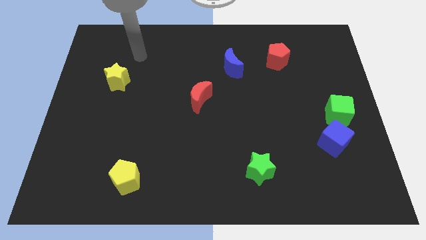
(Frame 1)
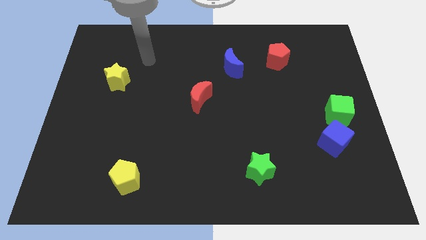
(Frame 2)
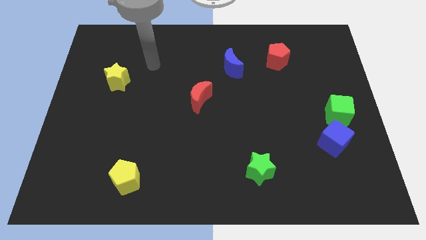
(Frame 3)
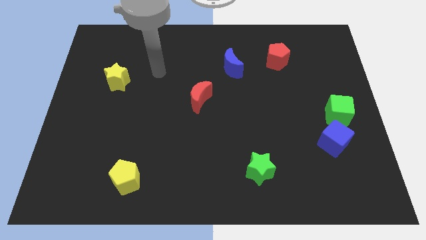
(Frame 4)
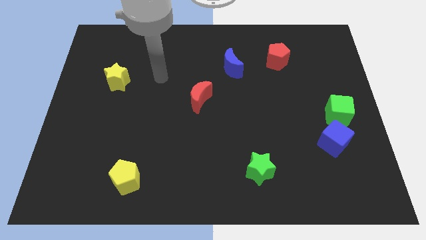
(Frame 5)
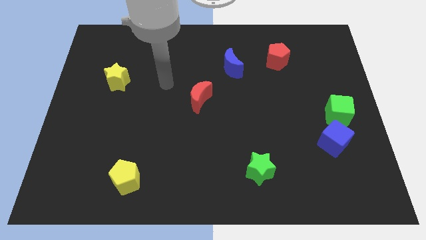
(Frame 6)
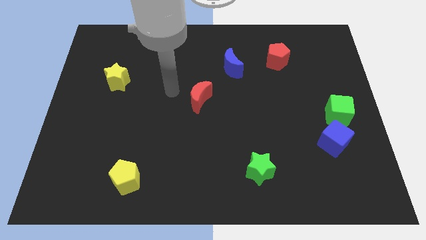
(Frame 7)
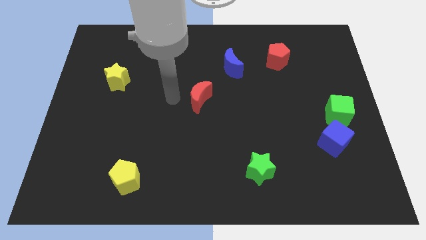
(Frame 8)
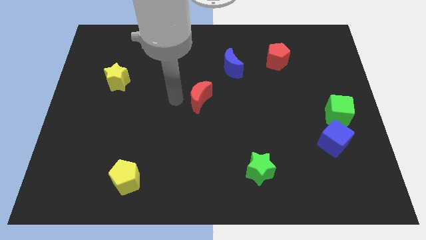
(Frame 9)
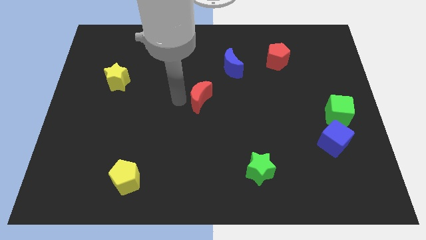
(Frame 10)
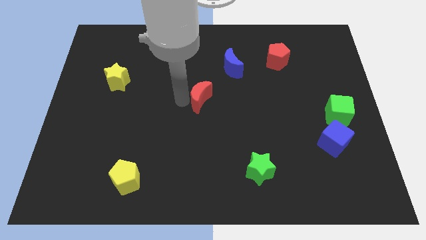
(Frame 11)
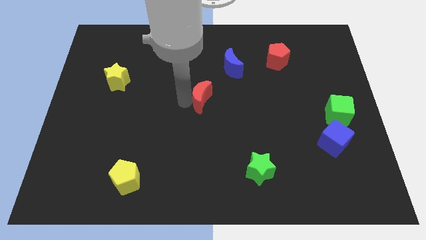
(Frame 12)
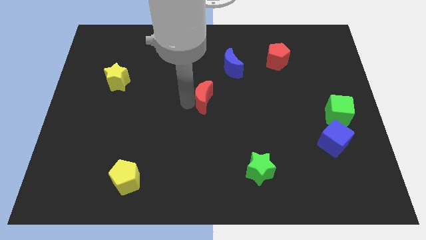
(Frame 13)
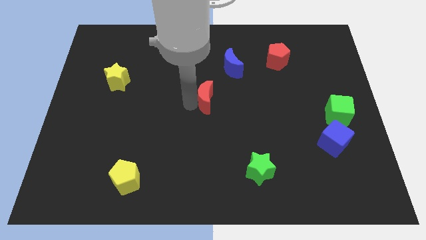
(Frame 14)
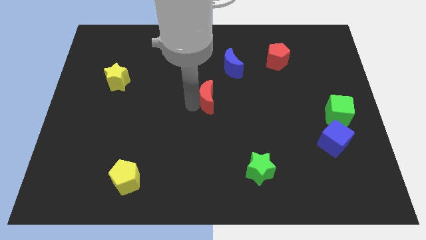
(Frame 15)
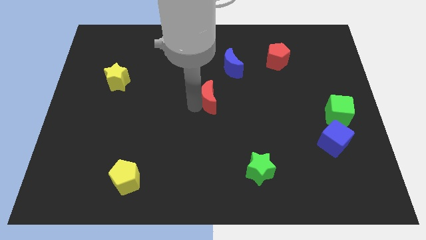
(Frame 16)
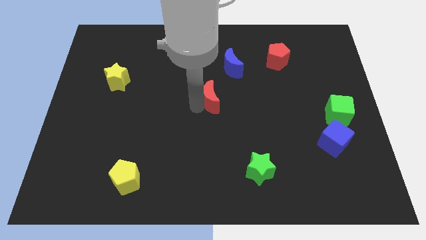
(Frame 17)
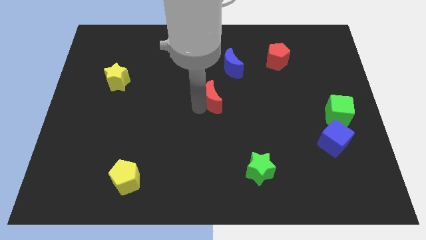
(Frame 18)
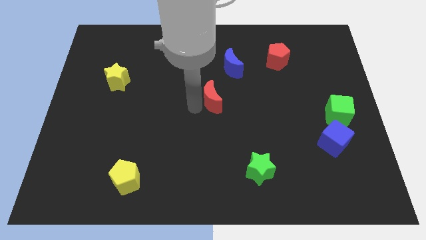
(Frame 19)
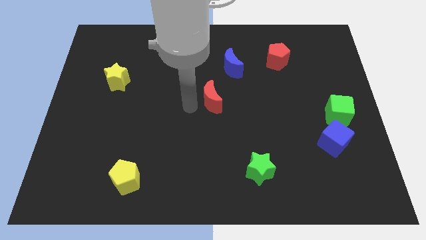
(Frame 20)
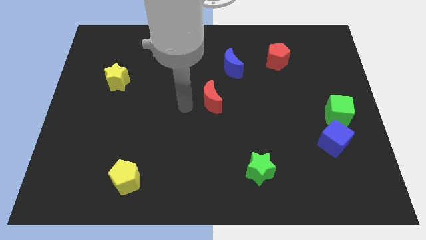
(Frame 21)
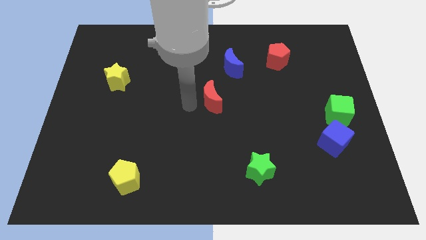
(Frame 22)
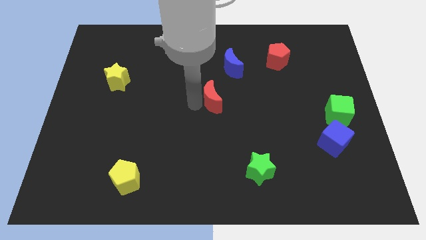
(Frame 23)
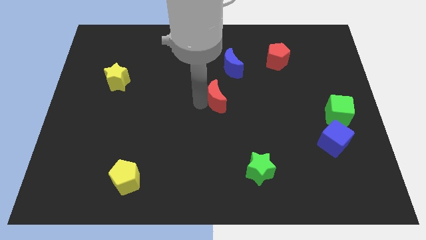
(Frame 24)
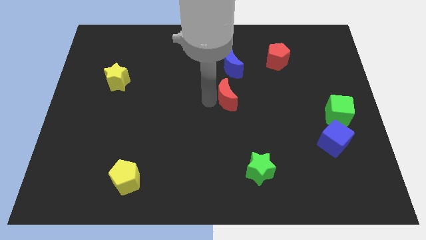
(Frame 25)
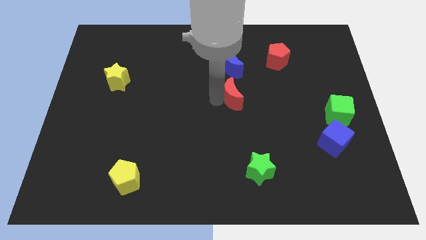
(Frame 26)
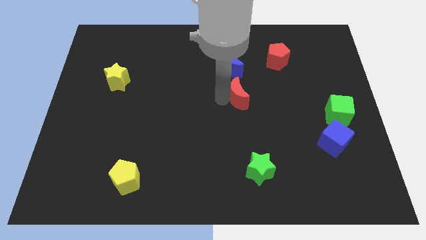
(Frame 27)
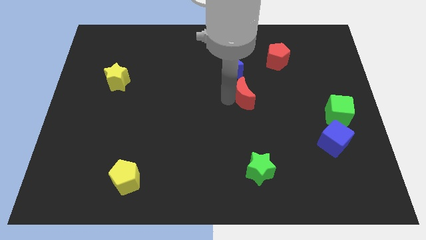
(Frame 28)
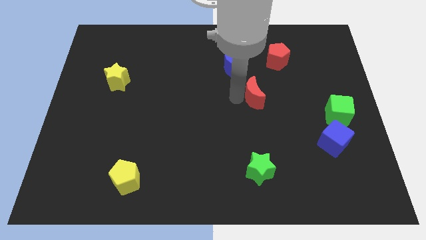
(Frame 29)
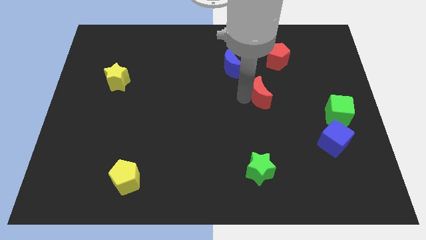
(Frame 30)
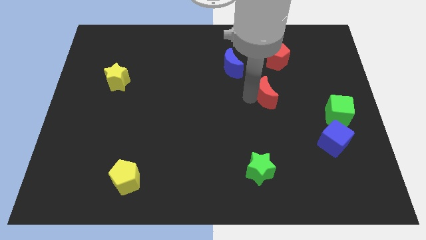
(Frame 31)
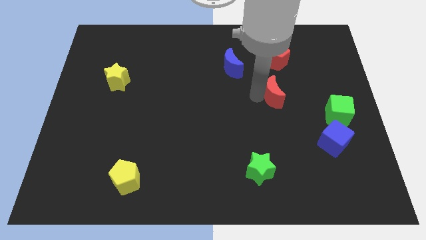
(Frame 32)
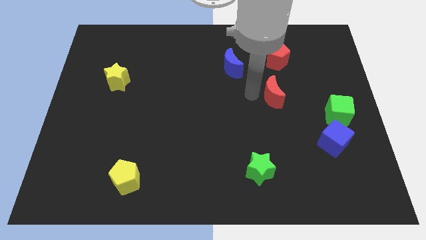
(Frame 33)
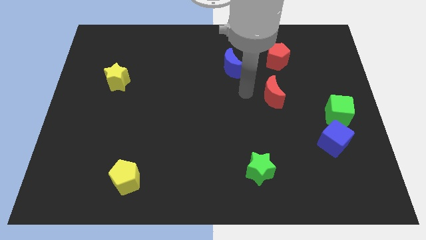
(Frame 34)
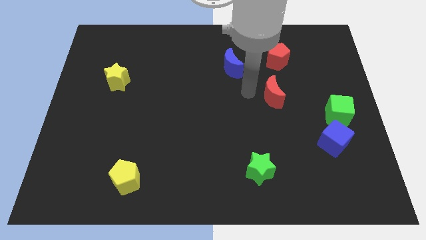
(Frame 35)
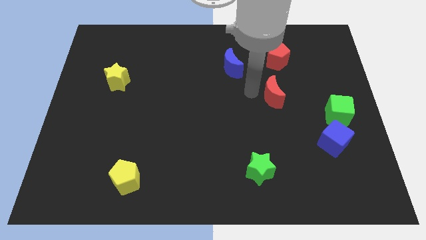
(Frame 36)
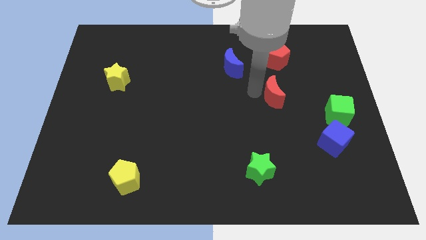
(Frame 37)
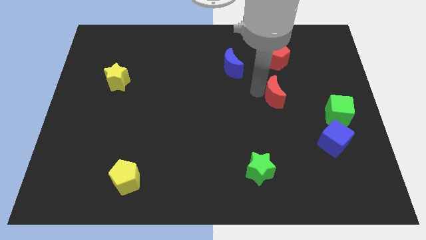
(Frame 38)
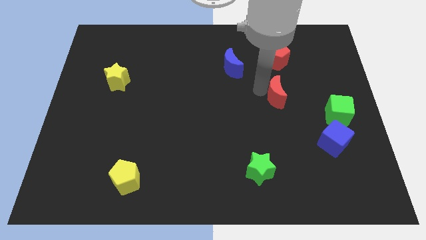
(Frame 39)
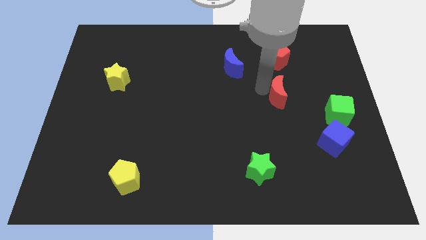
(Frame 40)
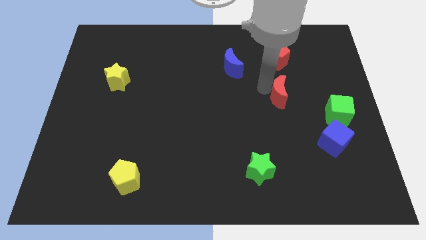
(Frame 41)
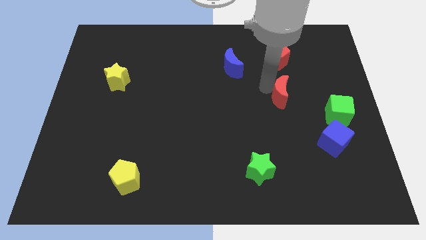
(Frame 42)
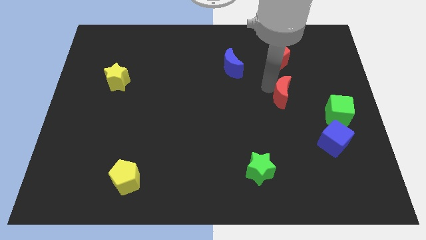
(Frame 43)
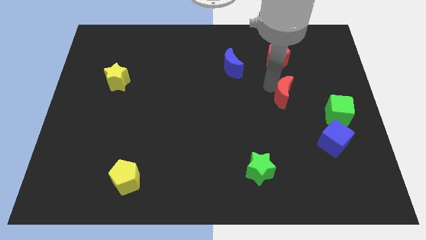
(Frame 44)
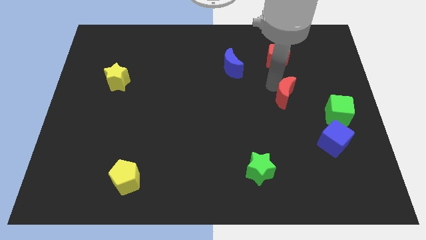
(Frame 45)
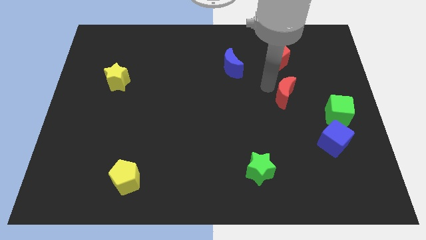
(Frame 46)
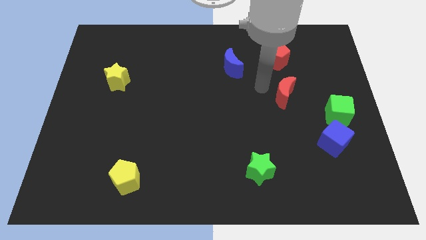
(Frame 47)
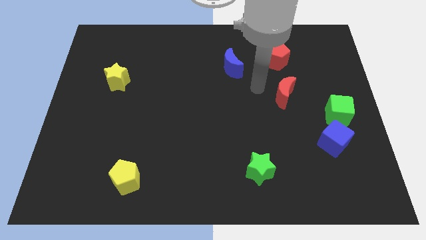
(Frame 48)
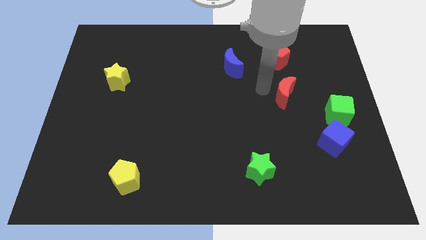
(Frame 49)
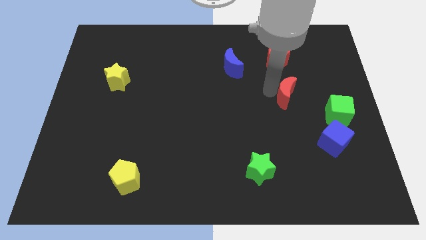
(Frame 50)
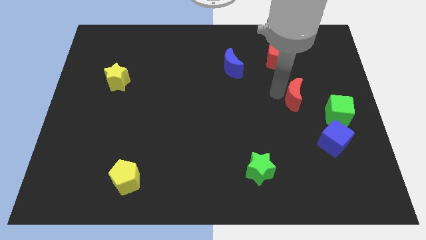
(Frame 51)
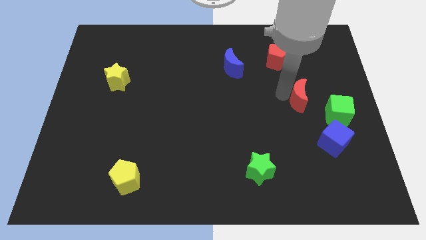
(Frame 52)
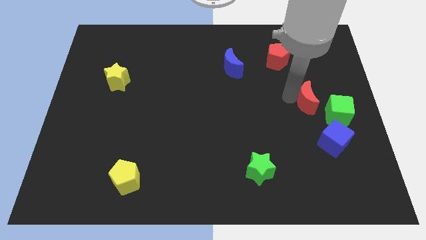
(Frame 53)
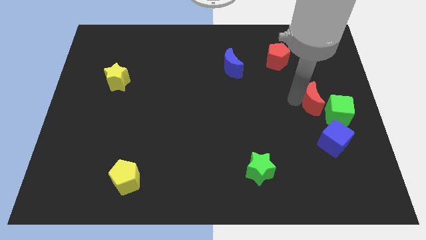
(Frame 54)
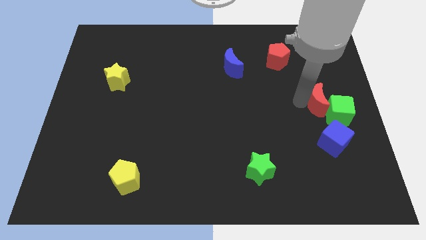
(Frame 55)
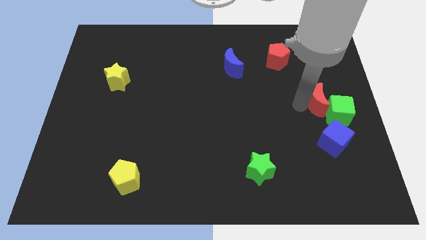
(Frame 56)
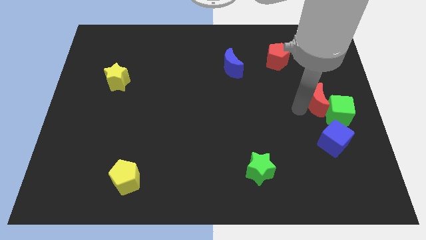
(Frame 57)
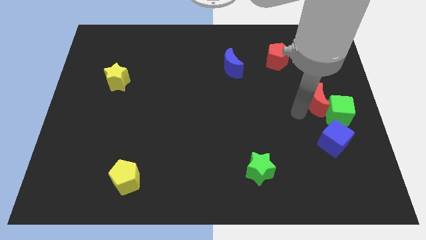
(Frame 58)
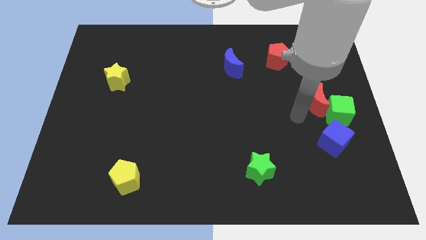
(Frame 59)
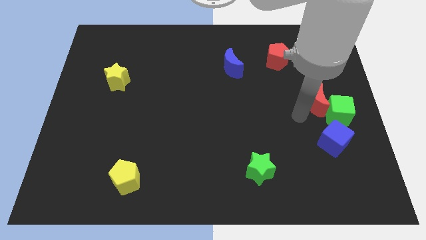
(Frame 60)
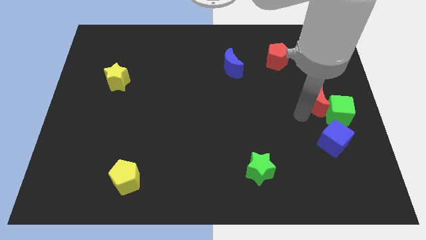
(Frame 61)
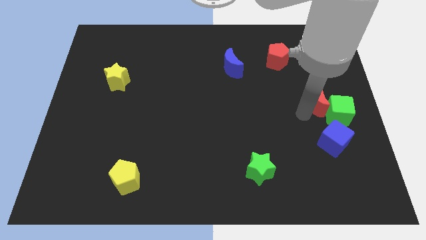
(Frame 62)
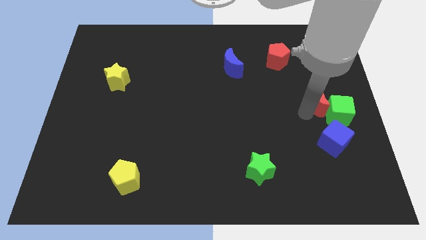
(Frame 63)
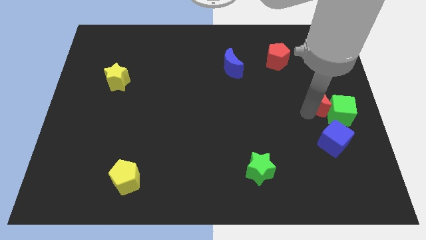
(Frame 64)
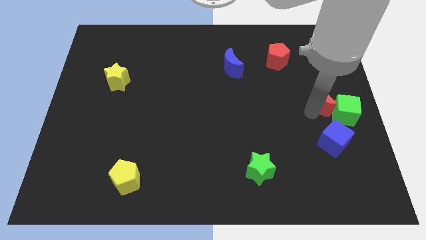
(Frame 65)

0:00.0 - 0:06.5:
move the red moon to the right side

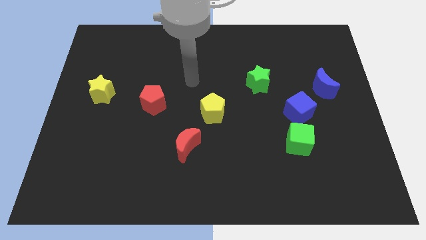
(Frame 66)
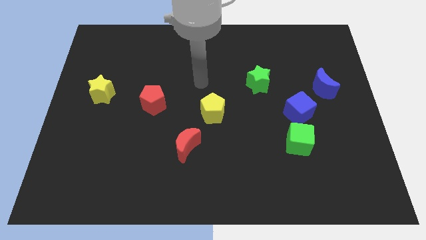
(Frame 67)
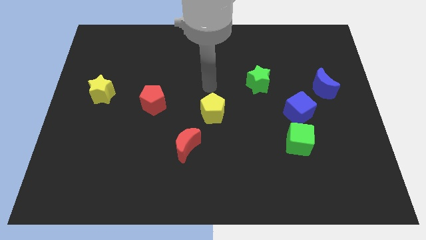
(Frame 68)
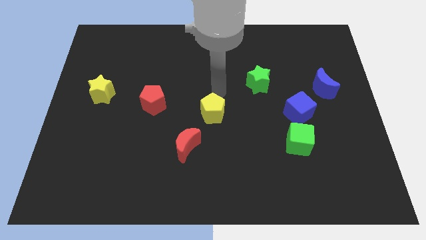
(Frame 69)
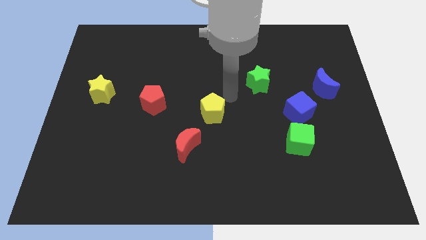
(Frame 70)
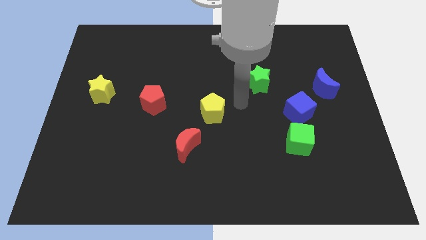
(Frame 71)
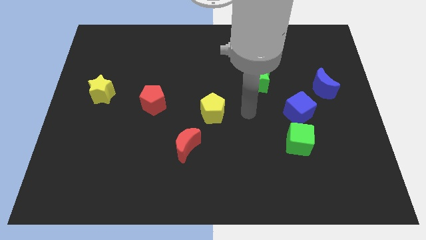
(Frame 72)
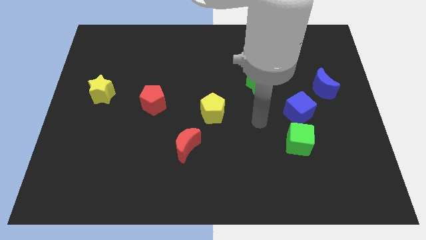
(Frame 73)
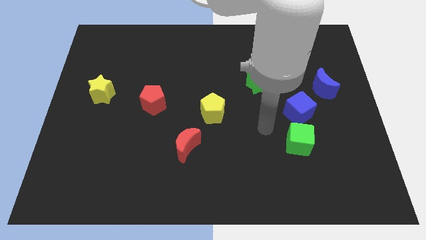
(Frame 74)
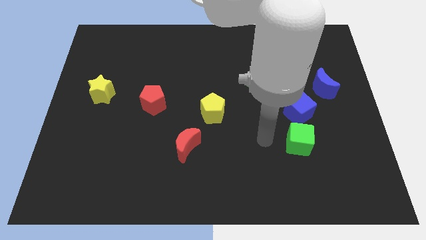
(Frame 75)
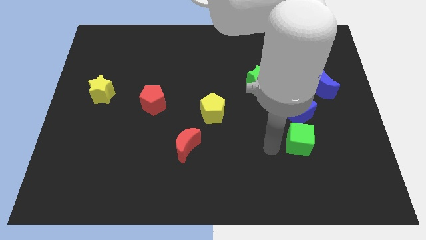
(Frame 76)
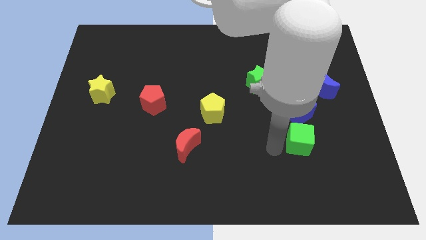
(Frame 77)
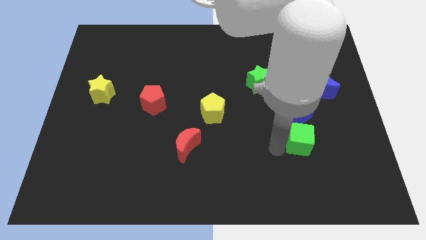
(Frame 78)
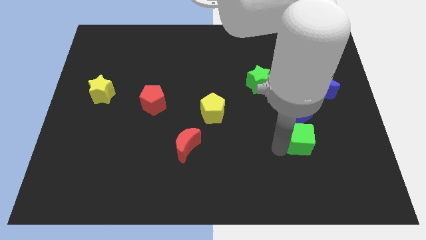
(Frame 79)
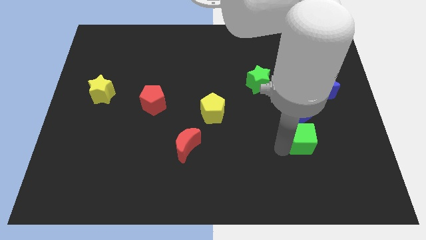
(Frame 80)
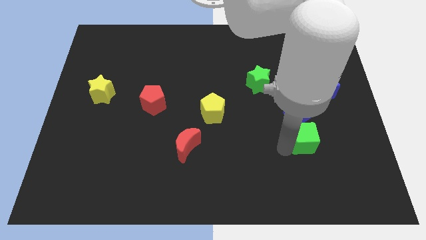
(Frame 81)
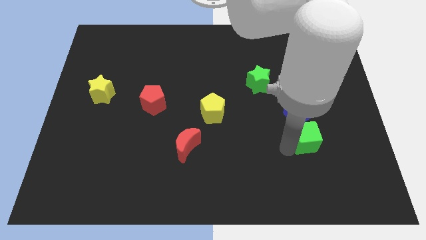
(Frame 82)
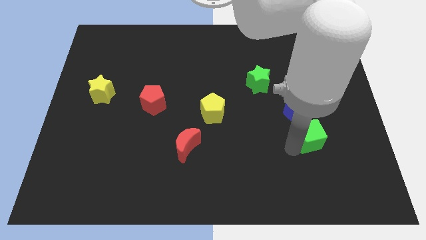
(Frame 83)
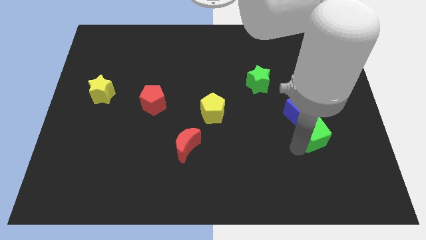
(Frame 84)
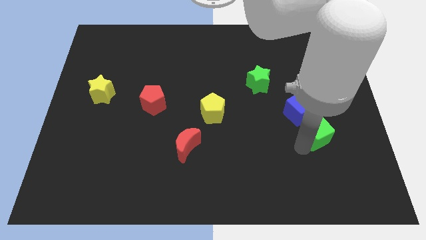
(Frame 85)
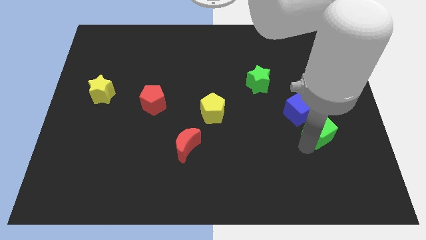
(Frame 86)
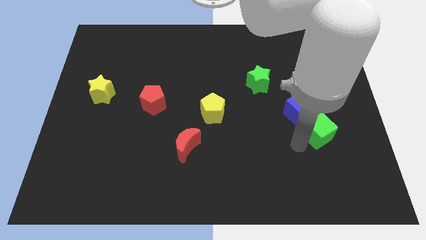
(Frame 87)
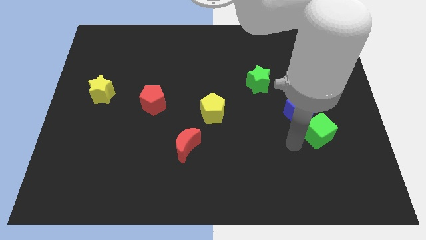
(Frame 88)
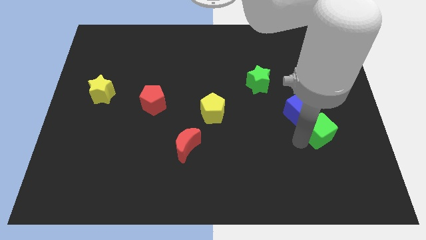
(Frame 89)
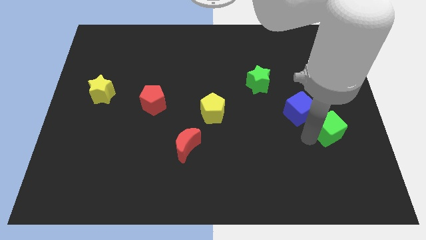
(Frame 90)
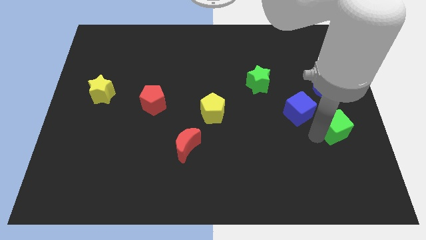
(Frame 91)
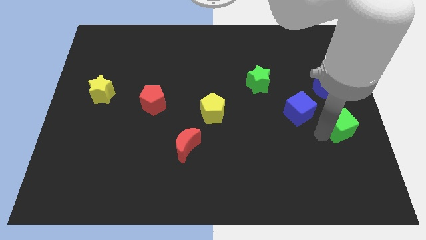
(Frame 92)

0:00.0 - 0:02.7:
push the green cube to the right side of the board
